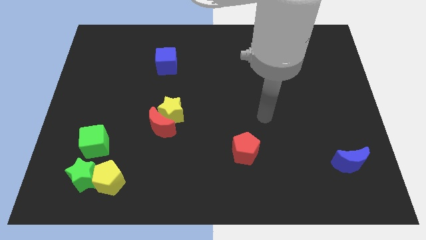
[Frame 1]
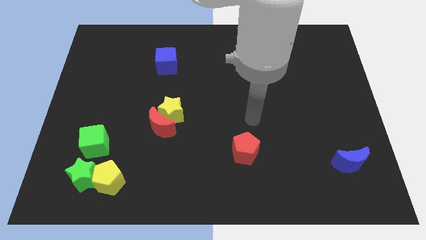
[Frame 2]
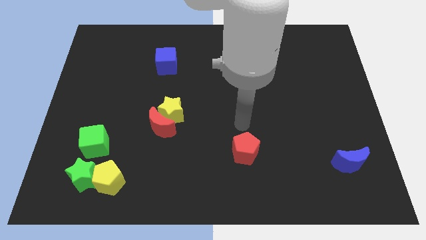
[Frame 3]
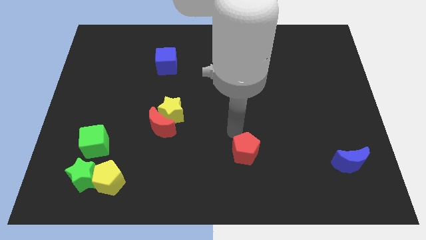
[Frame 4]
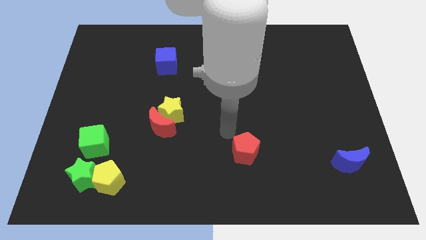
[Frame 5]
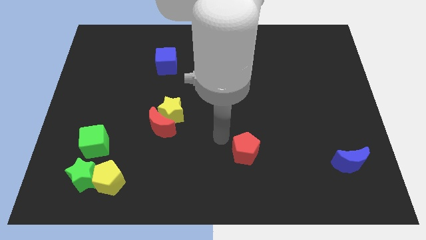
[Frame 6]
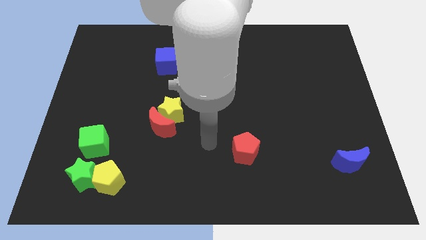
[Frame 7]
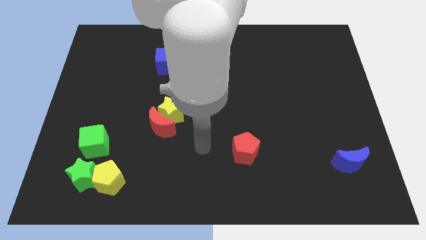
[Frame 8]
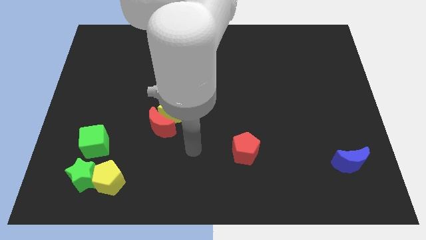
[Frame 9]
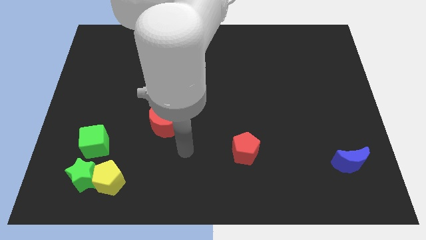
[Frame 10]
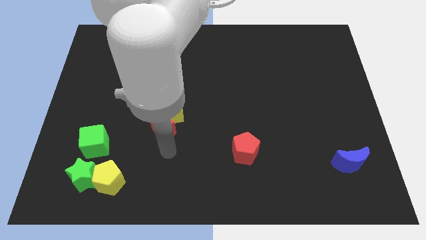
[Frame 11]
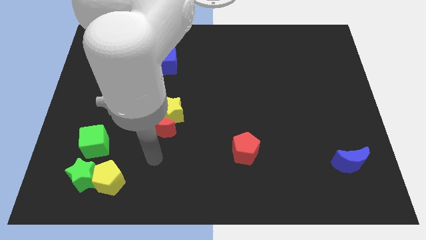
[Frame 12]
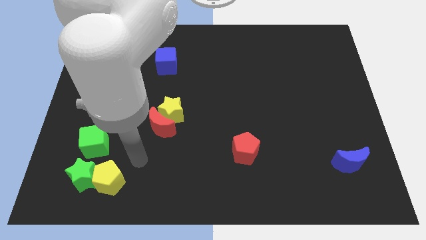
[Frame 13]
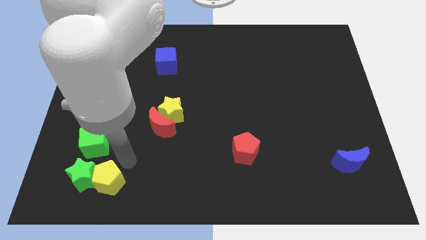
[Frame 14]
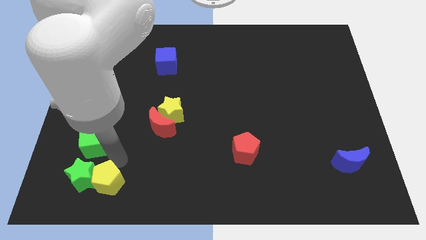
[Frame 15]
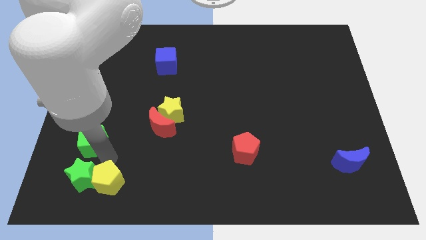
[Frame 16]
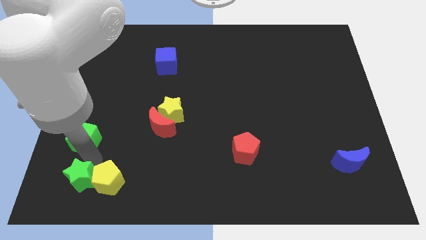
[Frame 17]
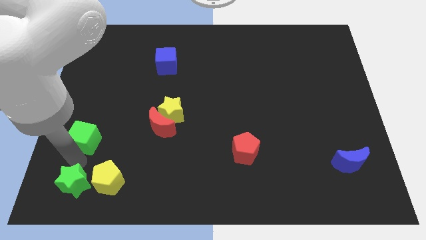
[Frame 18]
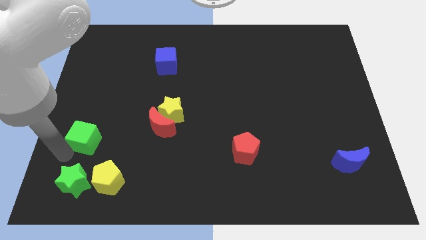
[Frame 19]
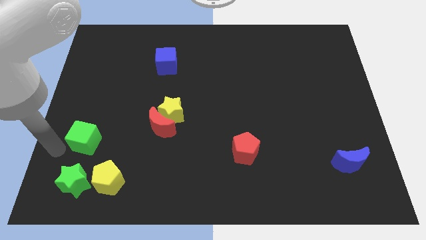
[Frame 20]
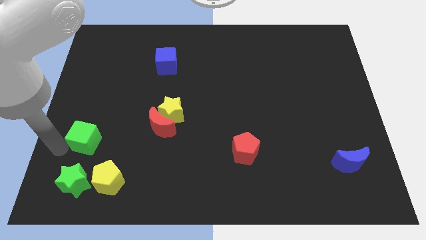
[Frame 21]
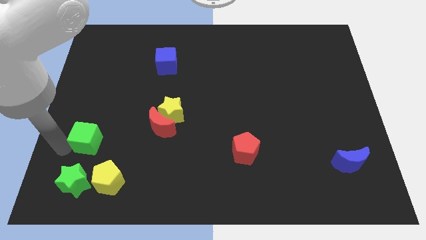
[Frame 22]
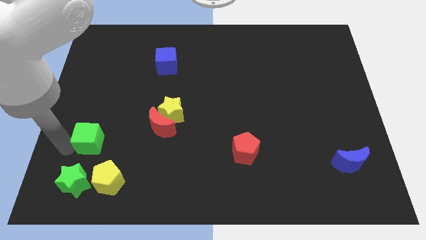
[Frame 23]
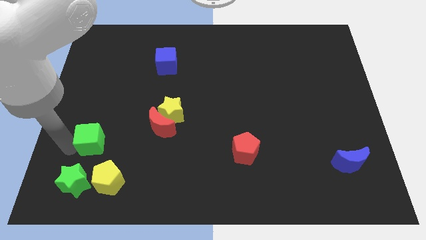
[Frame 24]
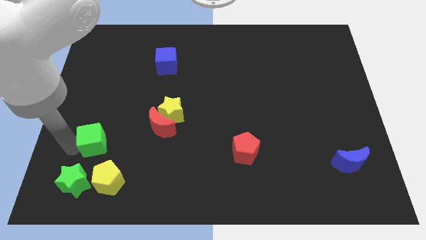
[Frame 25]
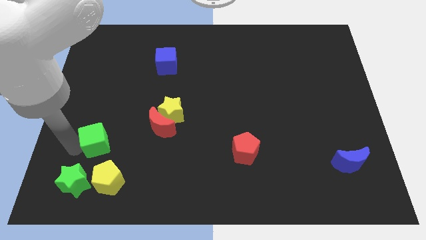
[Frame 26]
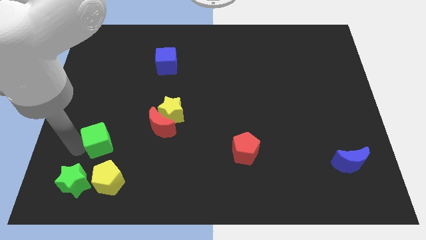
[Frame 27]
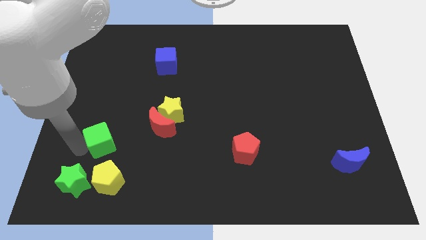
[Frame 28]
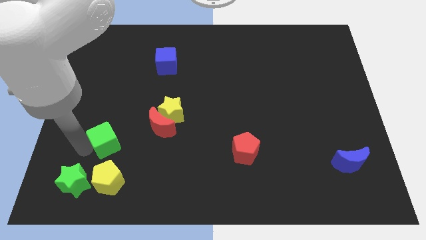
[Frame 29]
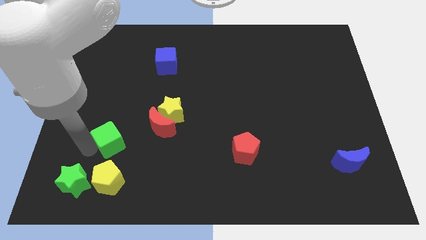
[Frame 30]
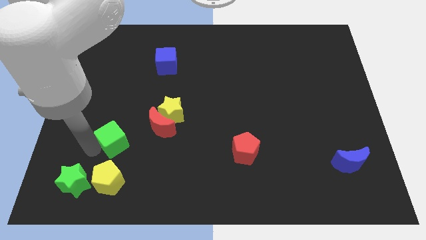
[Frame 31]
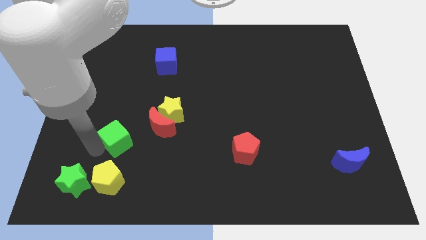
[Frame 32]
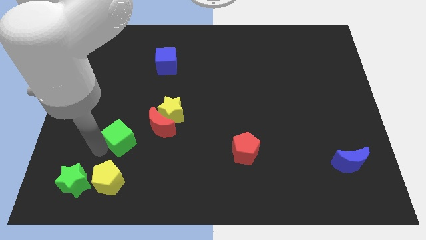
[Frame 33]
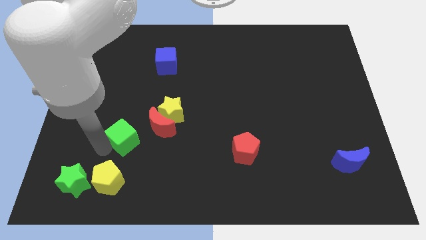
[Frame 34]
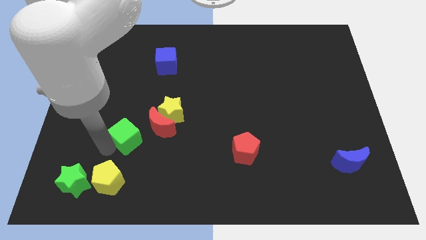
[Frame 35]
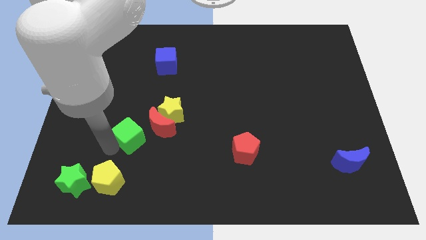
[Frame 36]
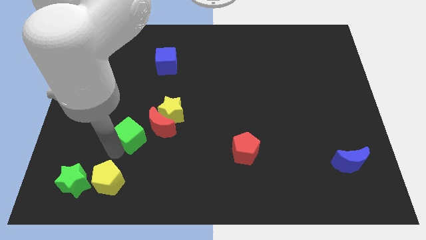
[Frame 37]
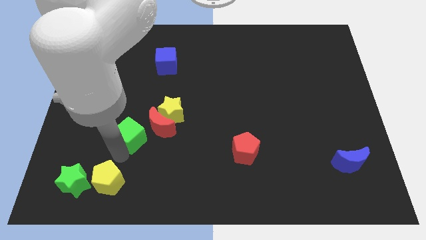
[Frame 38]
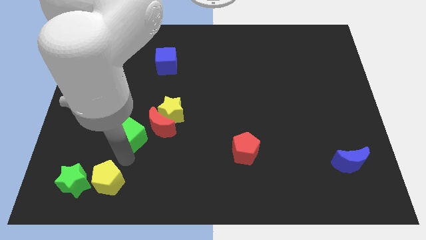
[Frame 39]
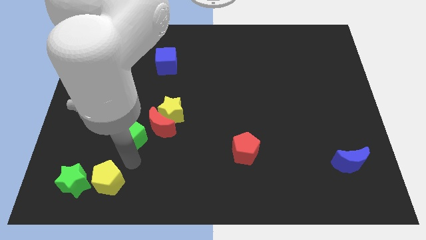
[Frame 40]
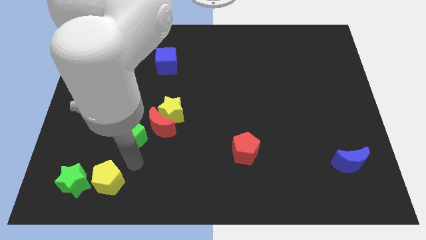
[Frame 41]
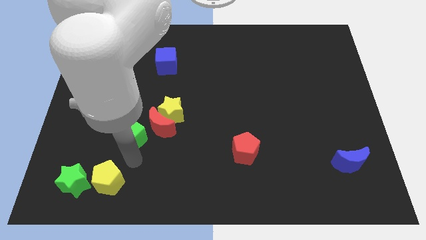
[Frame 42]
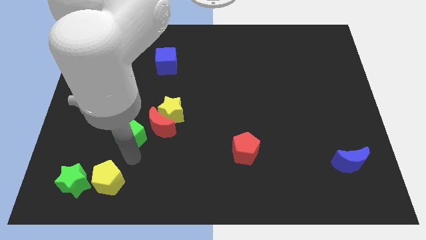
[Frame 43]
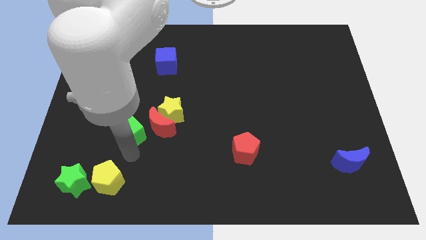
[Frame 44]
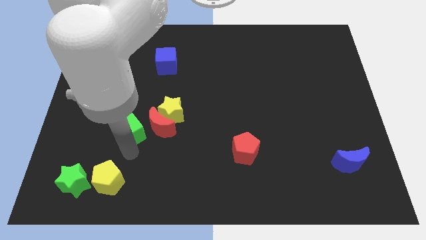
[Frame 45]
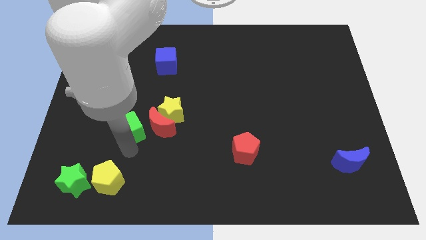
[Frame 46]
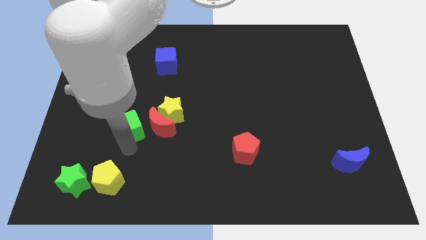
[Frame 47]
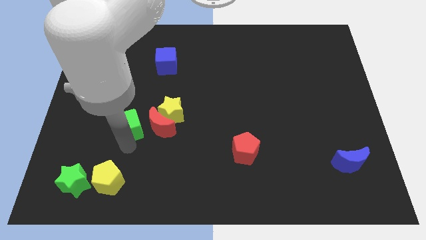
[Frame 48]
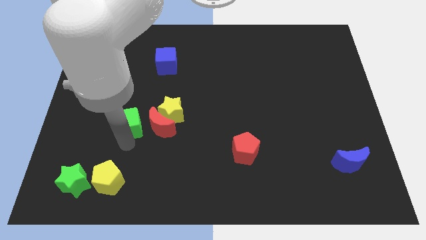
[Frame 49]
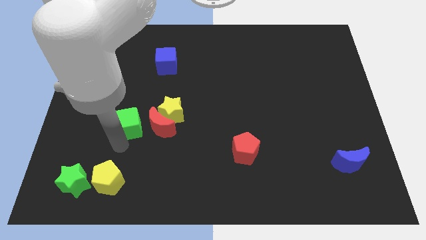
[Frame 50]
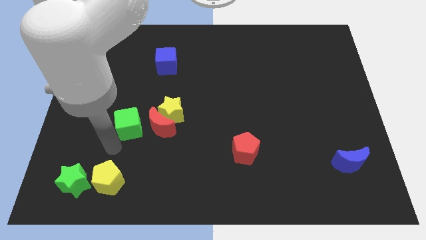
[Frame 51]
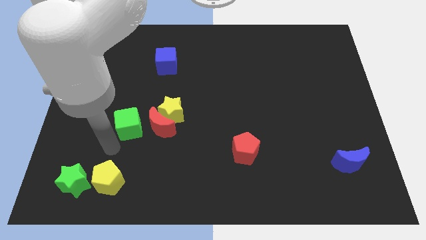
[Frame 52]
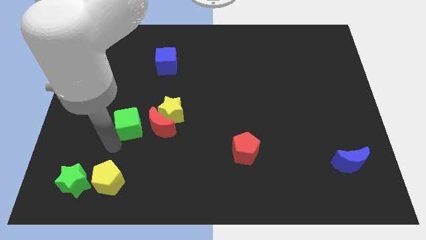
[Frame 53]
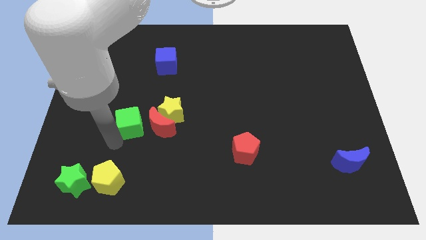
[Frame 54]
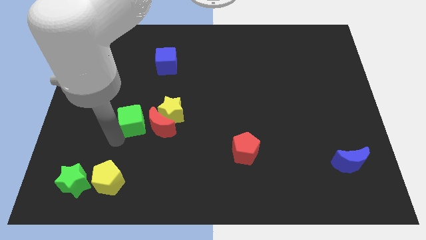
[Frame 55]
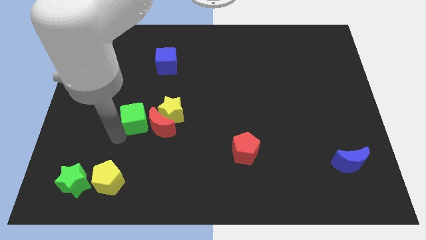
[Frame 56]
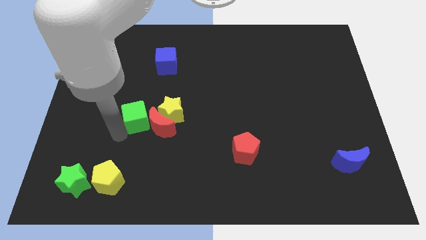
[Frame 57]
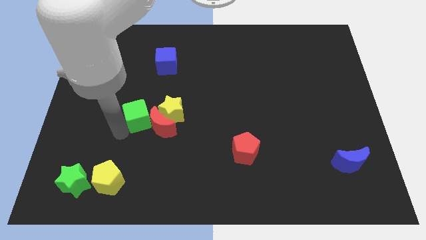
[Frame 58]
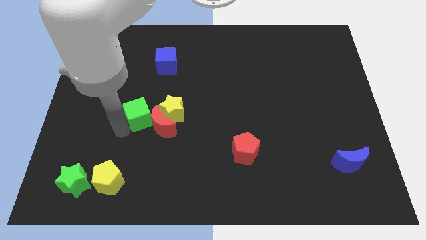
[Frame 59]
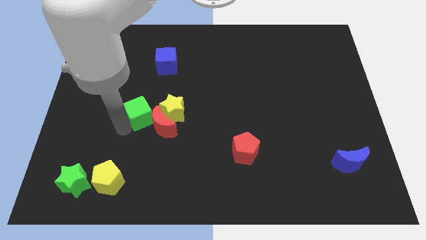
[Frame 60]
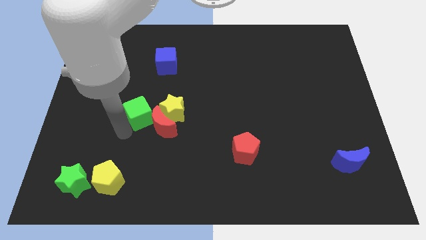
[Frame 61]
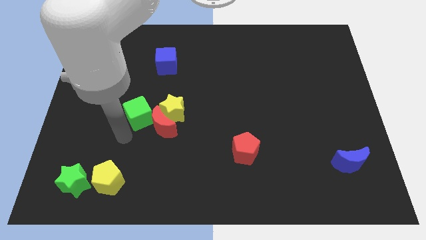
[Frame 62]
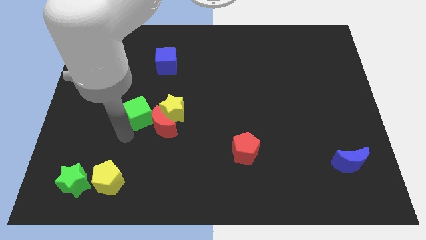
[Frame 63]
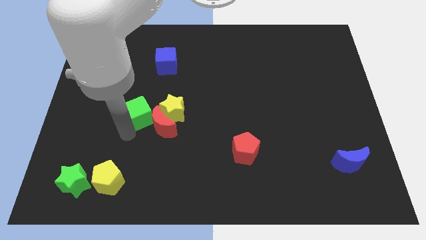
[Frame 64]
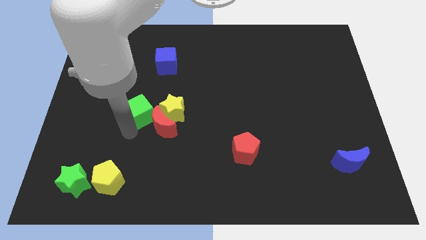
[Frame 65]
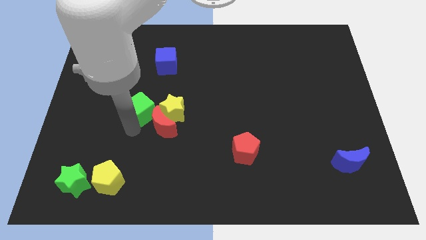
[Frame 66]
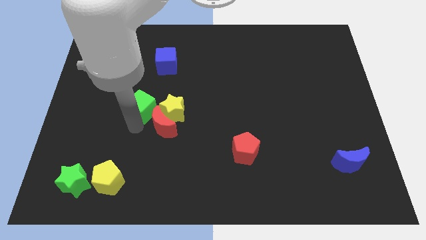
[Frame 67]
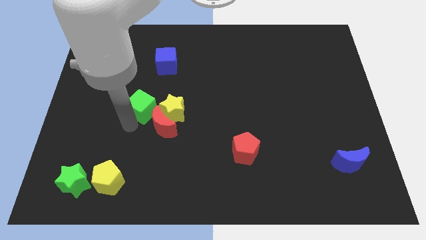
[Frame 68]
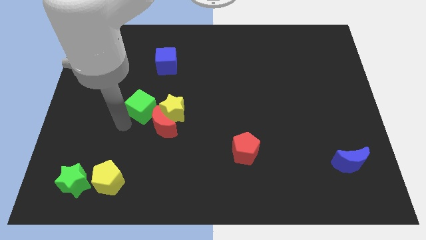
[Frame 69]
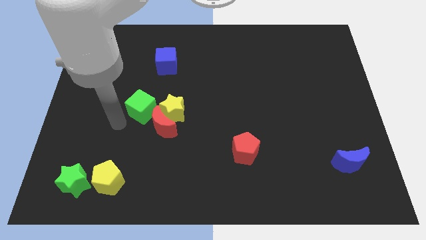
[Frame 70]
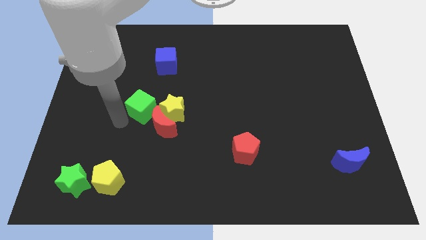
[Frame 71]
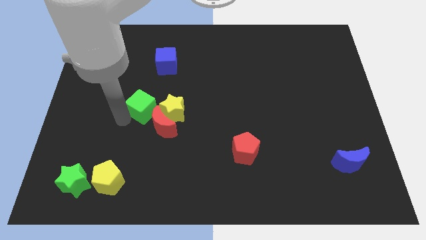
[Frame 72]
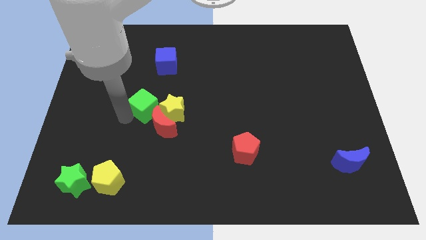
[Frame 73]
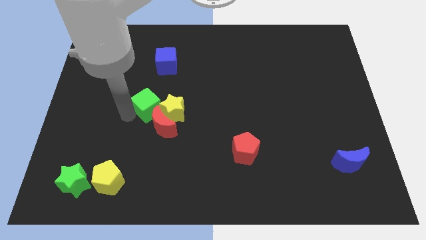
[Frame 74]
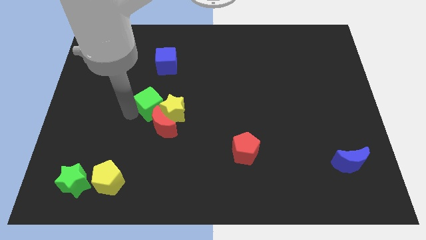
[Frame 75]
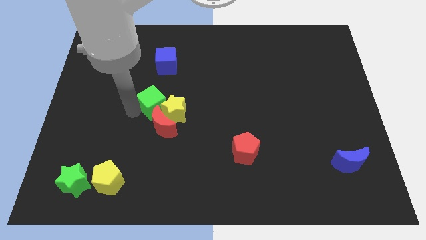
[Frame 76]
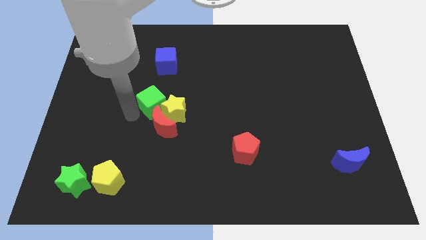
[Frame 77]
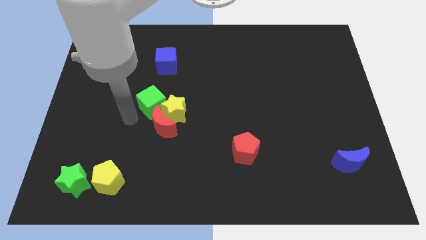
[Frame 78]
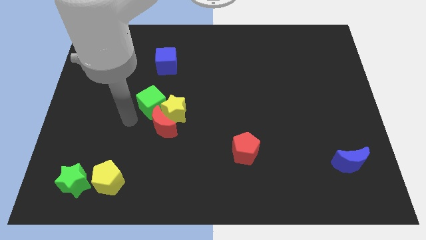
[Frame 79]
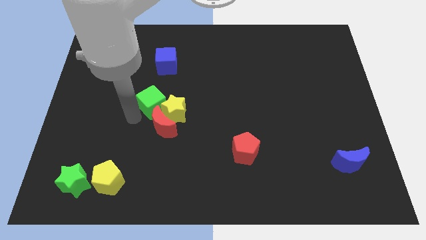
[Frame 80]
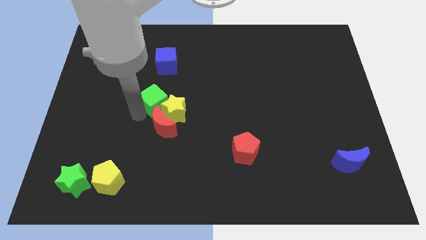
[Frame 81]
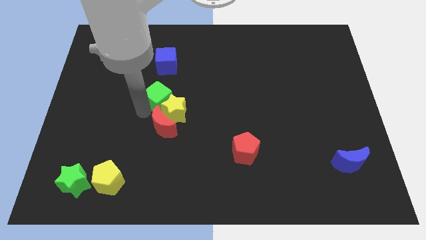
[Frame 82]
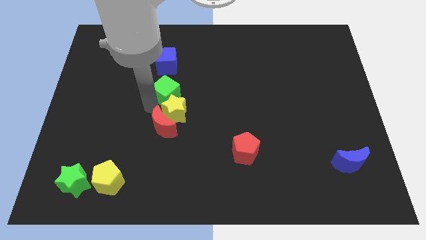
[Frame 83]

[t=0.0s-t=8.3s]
slide the green cube upwards and right

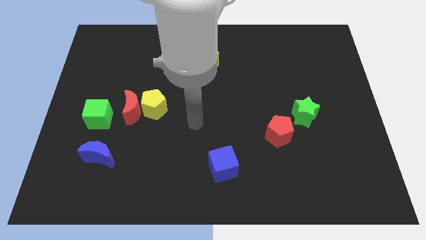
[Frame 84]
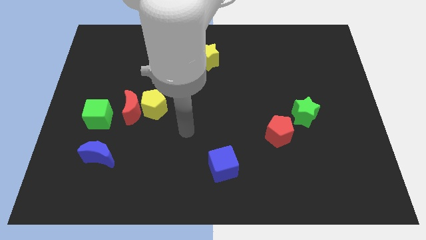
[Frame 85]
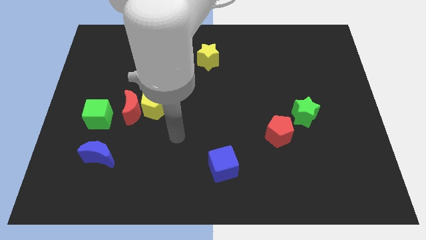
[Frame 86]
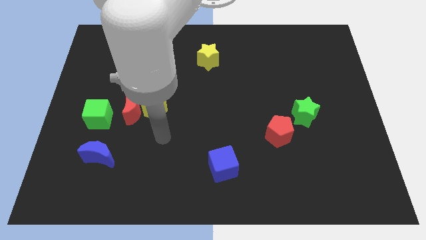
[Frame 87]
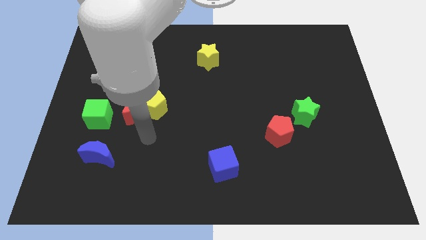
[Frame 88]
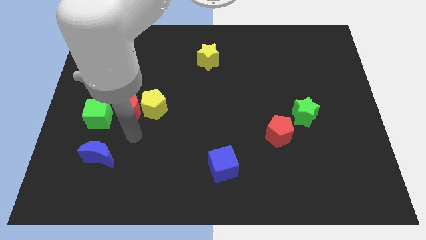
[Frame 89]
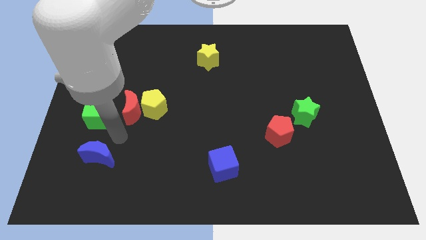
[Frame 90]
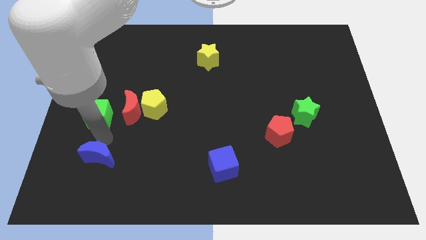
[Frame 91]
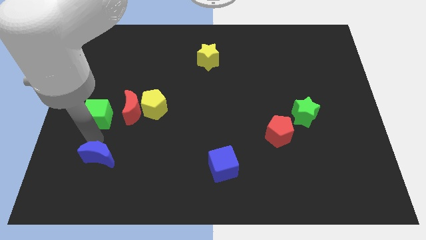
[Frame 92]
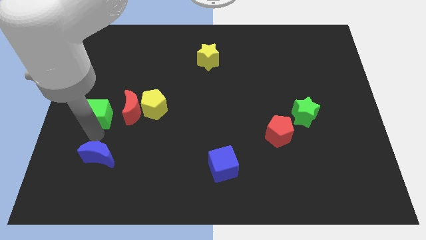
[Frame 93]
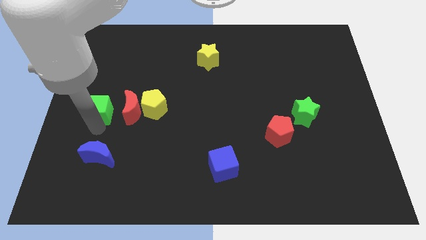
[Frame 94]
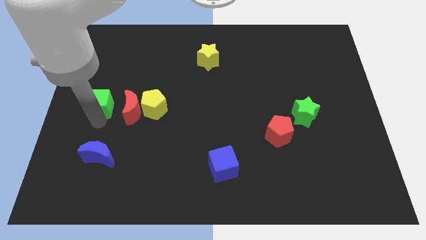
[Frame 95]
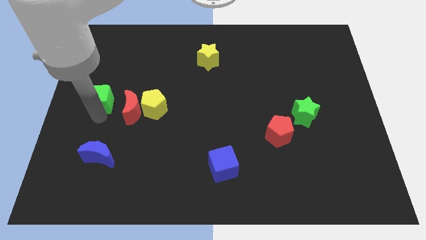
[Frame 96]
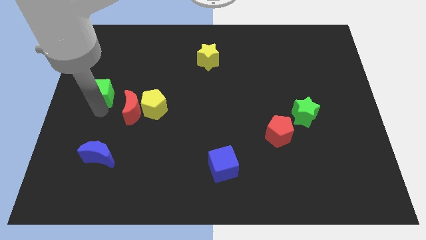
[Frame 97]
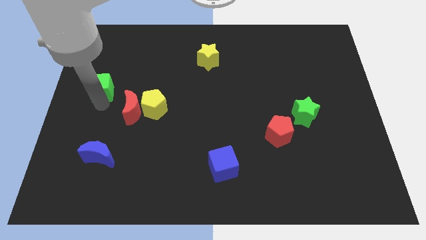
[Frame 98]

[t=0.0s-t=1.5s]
slightly move the green cube upwards
